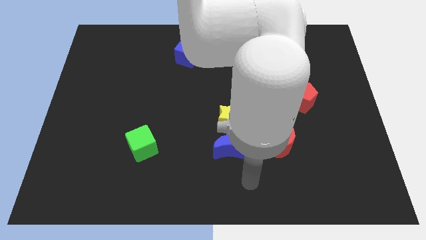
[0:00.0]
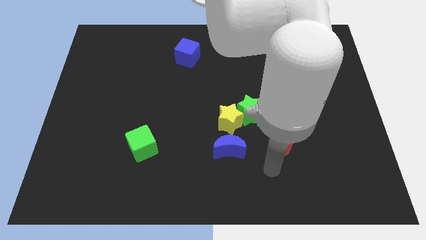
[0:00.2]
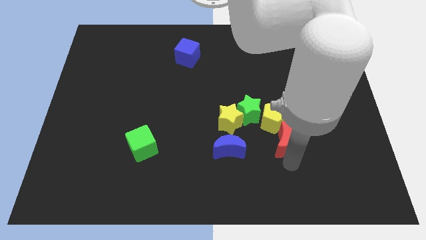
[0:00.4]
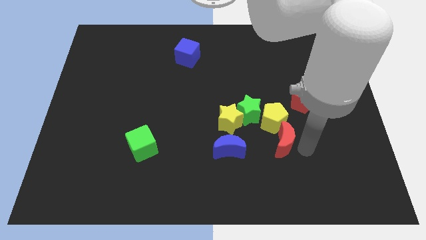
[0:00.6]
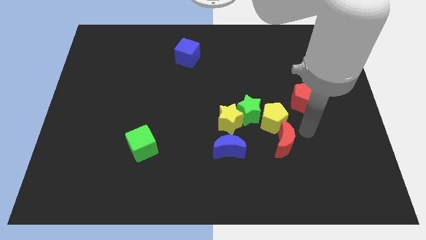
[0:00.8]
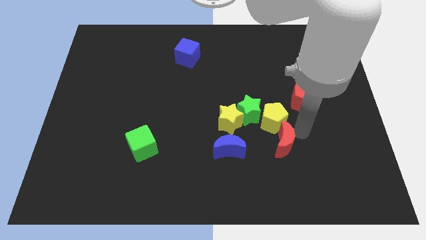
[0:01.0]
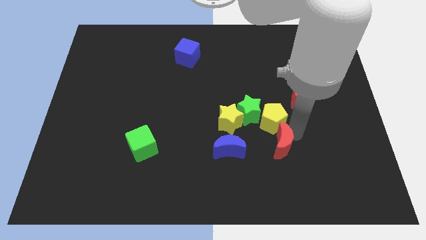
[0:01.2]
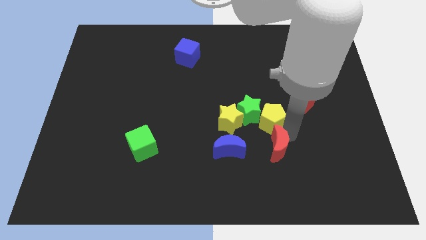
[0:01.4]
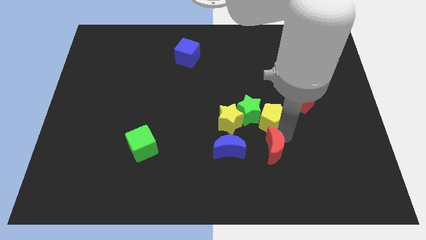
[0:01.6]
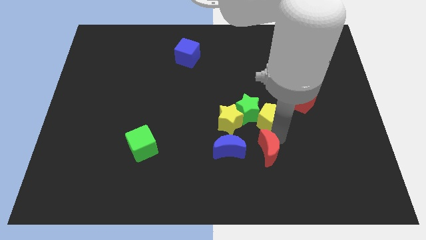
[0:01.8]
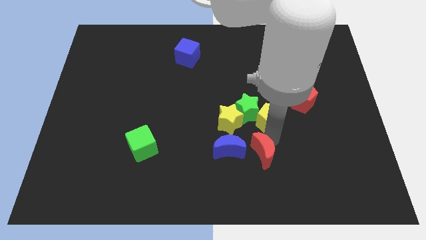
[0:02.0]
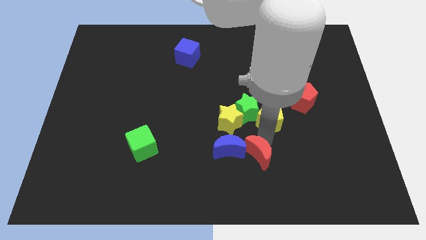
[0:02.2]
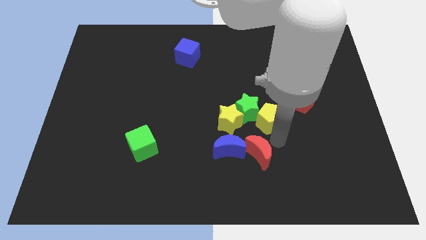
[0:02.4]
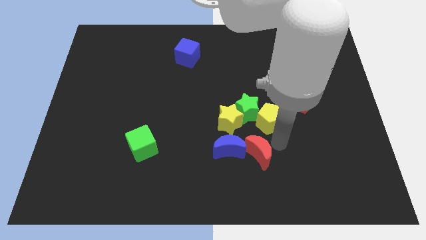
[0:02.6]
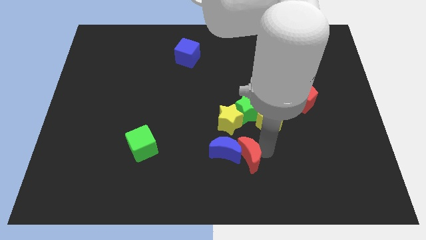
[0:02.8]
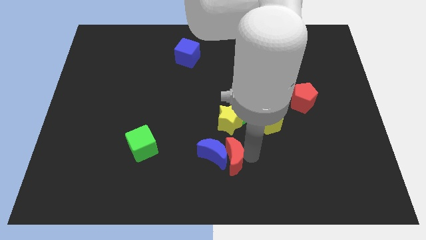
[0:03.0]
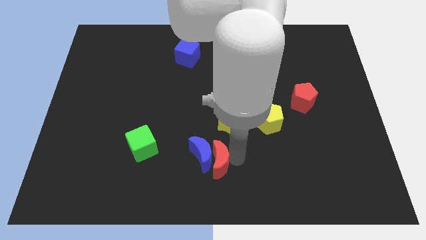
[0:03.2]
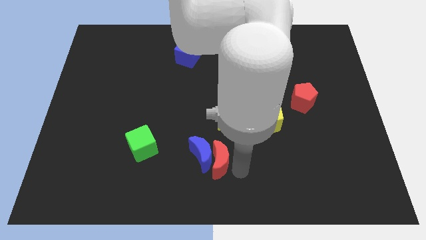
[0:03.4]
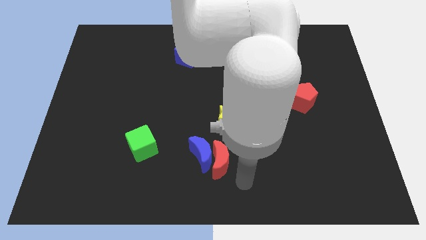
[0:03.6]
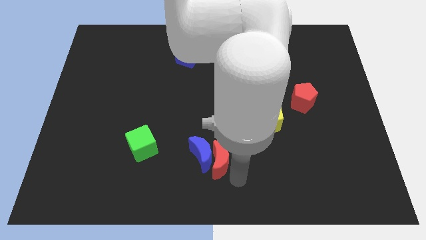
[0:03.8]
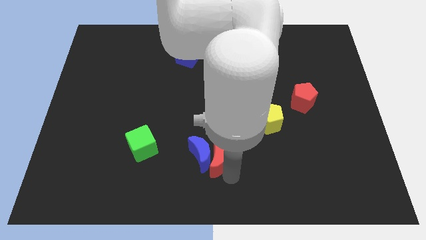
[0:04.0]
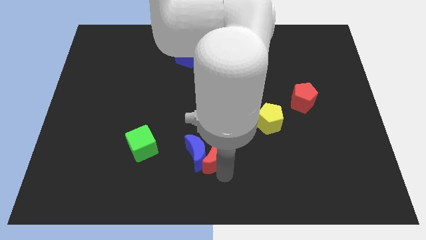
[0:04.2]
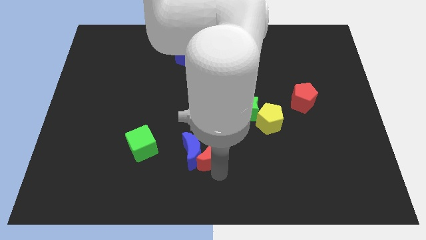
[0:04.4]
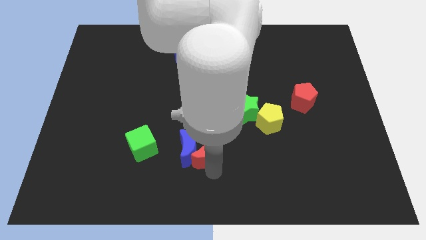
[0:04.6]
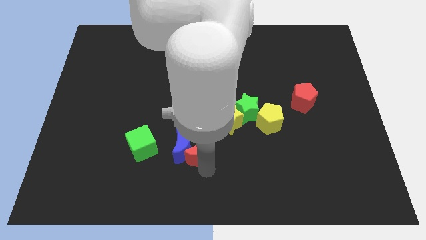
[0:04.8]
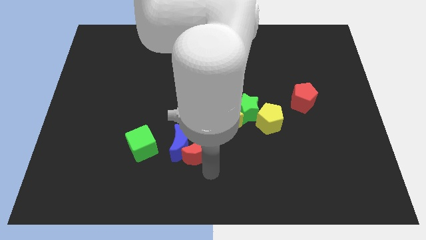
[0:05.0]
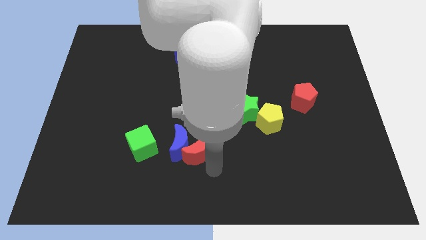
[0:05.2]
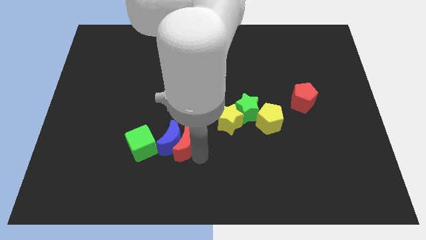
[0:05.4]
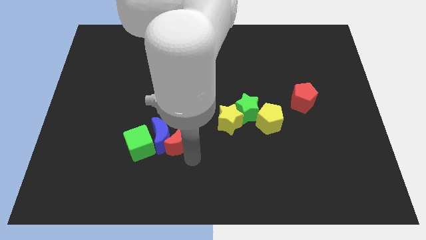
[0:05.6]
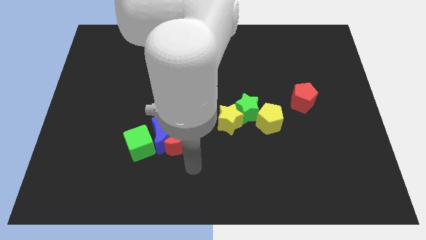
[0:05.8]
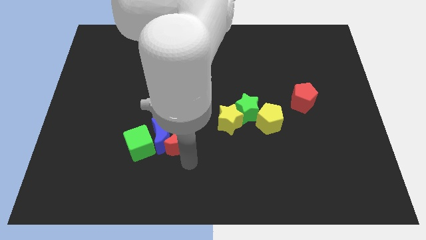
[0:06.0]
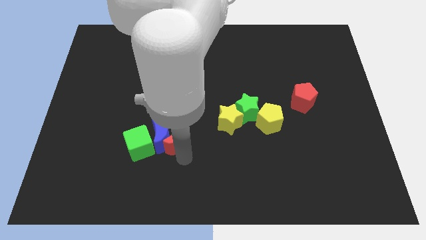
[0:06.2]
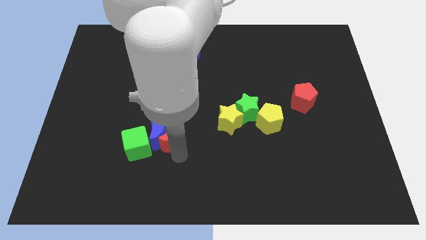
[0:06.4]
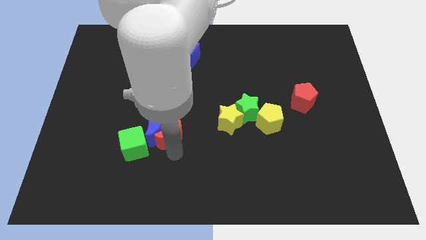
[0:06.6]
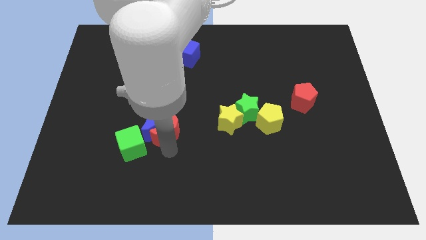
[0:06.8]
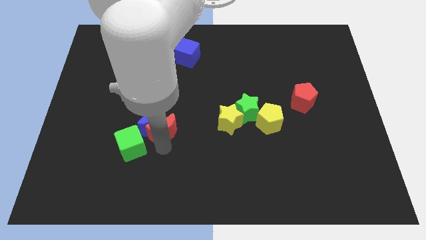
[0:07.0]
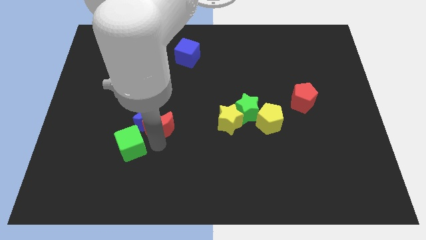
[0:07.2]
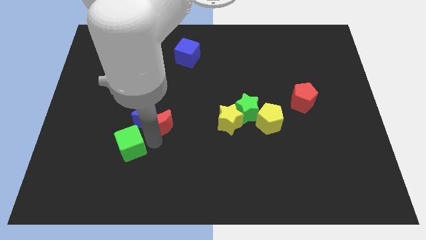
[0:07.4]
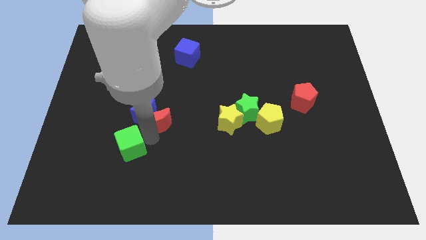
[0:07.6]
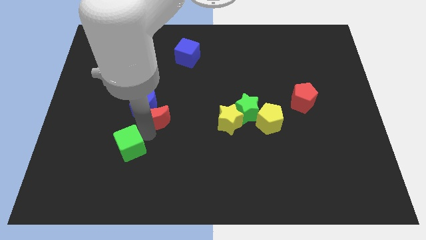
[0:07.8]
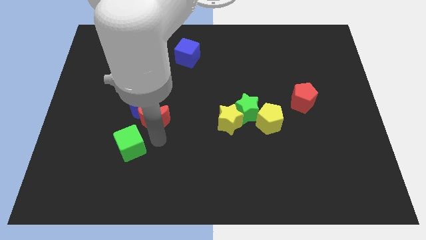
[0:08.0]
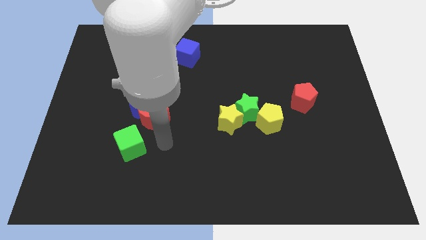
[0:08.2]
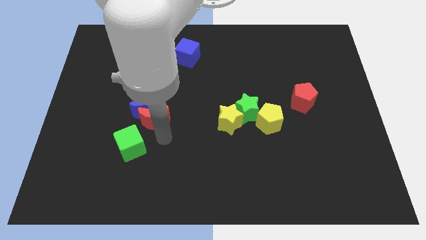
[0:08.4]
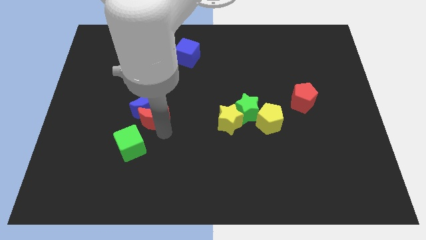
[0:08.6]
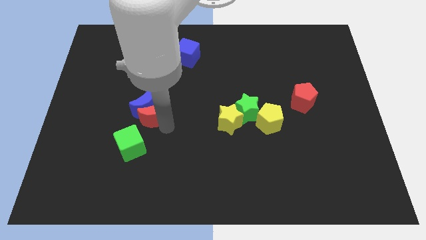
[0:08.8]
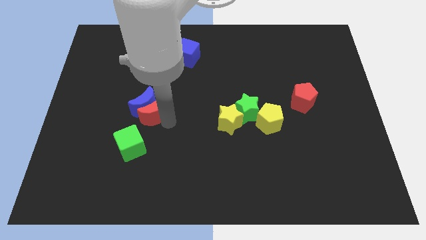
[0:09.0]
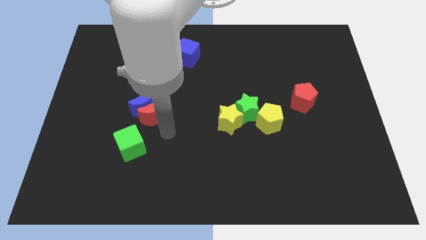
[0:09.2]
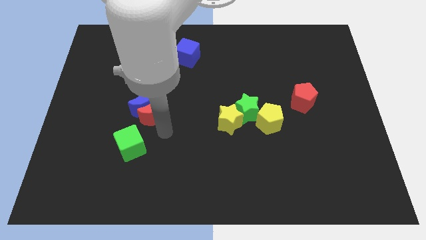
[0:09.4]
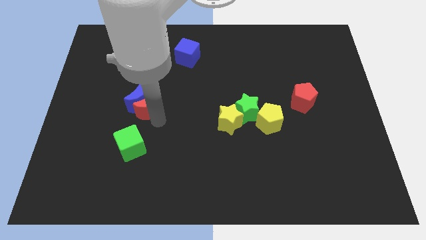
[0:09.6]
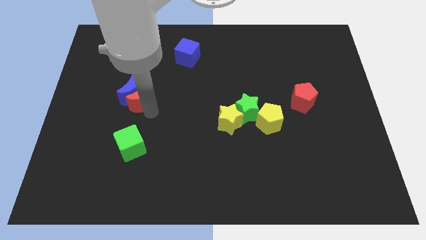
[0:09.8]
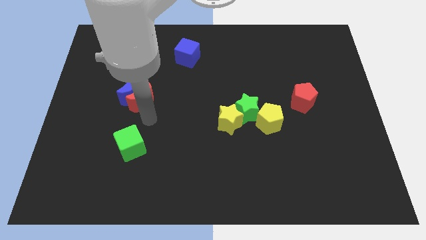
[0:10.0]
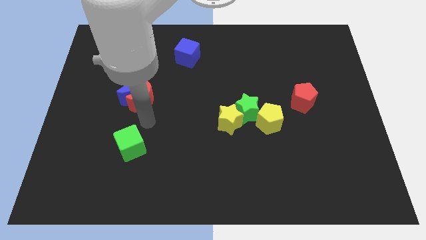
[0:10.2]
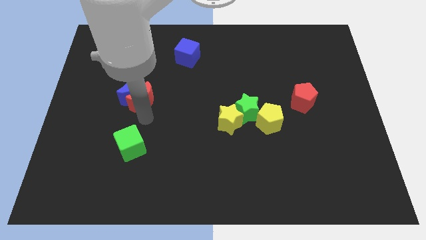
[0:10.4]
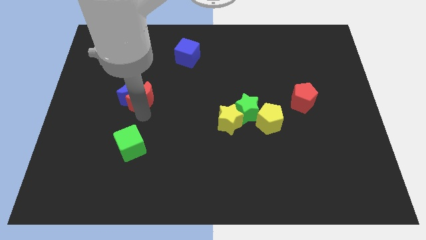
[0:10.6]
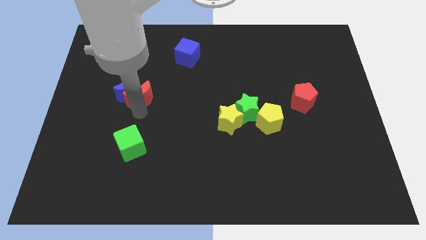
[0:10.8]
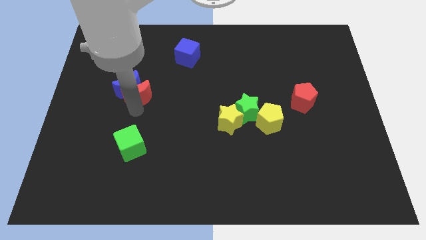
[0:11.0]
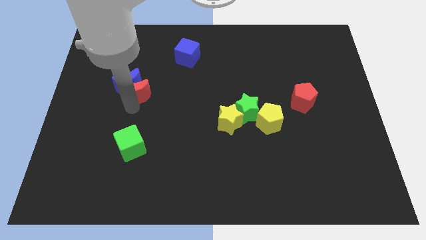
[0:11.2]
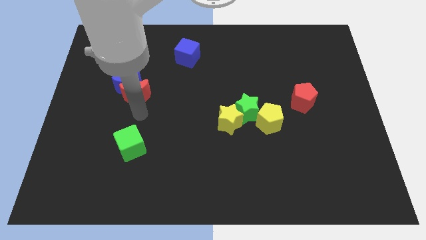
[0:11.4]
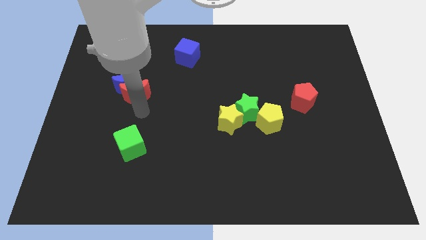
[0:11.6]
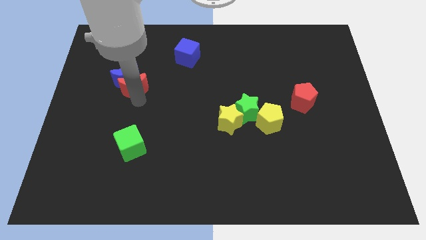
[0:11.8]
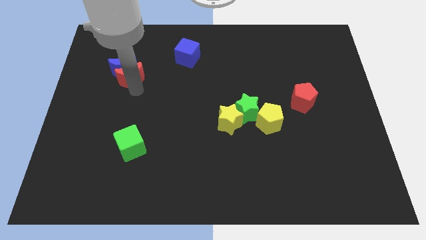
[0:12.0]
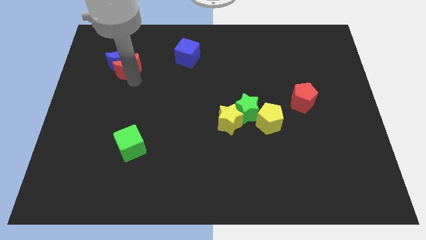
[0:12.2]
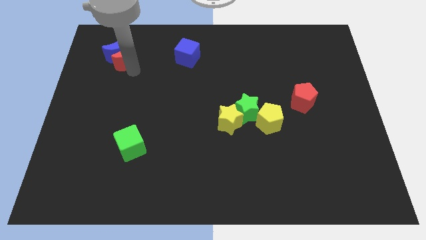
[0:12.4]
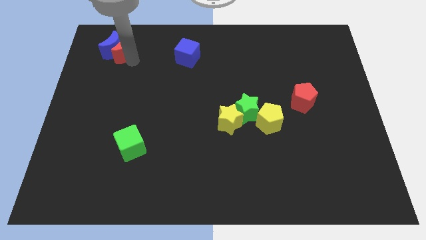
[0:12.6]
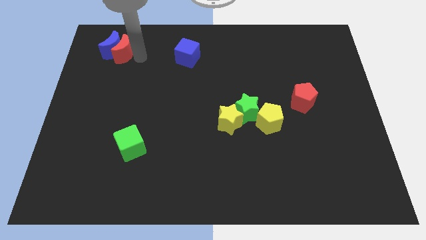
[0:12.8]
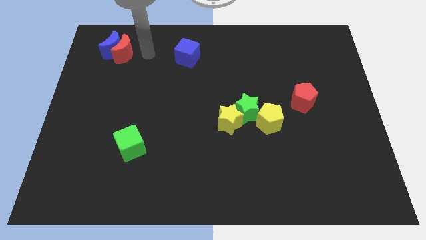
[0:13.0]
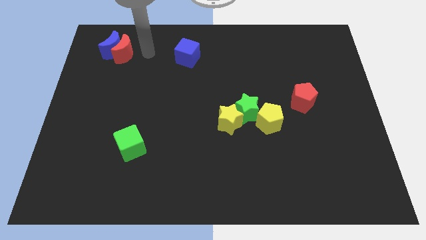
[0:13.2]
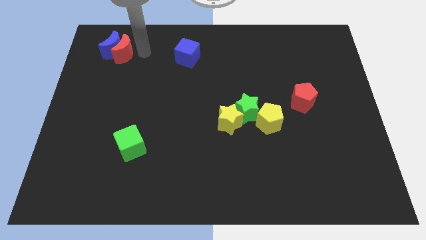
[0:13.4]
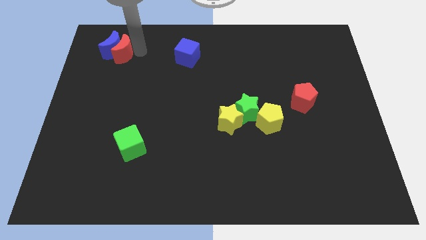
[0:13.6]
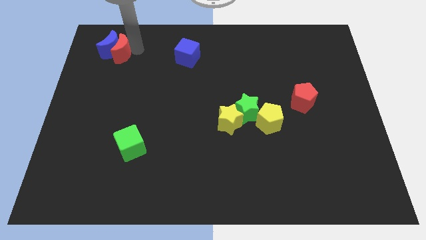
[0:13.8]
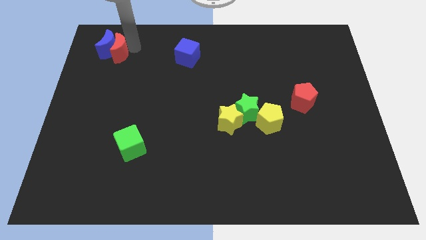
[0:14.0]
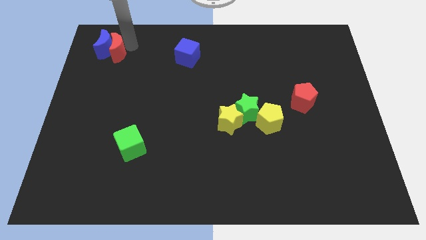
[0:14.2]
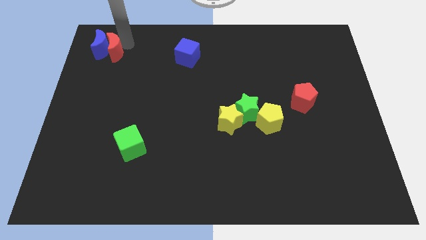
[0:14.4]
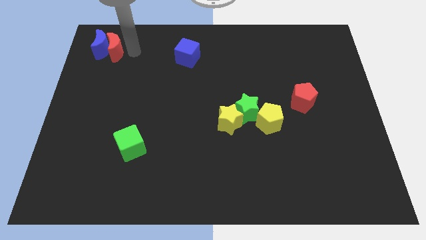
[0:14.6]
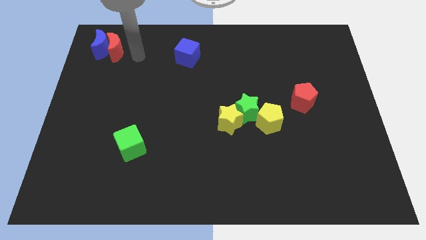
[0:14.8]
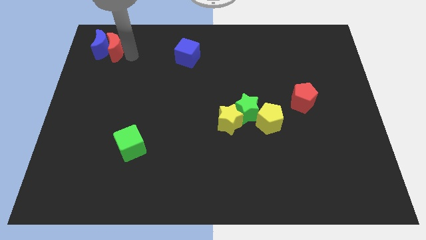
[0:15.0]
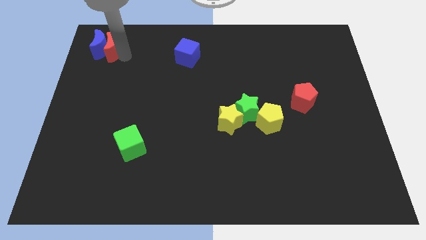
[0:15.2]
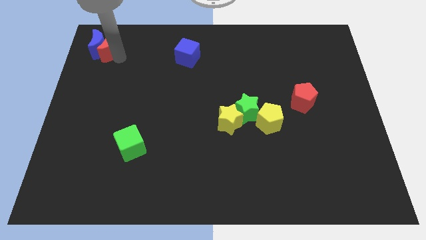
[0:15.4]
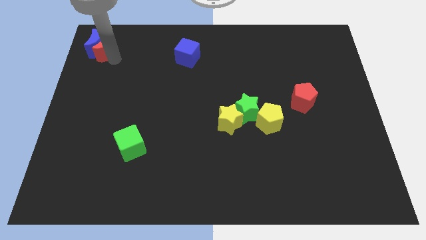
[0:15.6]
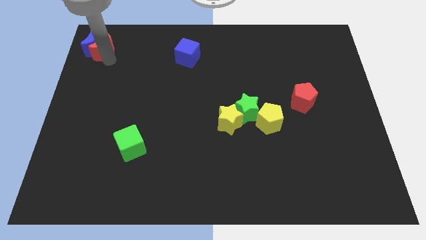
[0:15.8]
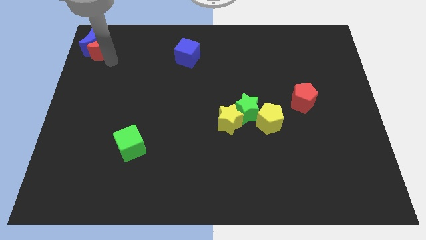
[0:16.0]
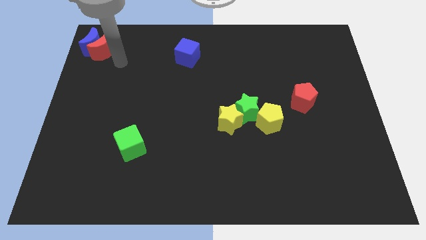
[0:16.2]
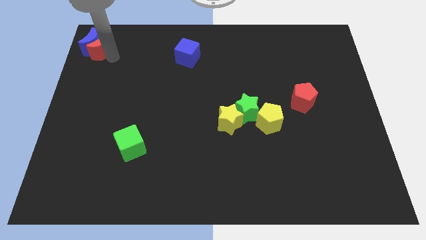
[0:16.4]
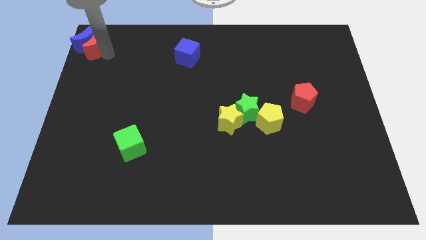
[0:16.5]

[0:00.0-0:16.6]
put the red moon to the top left of the board
